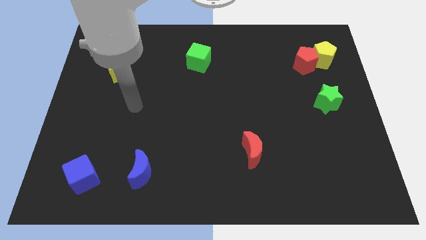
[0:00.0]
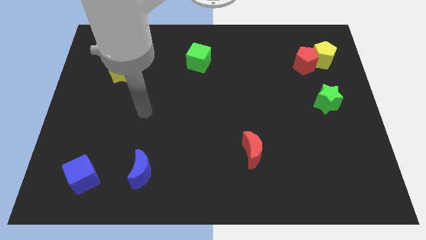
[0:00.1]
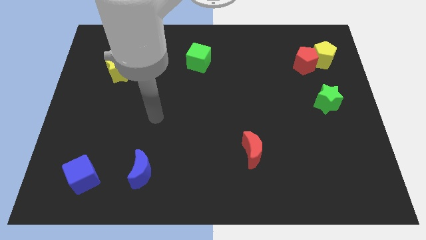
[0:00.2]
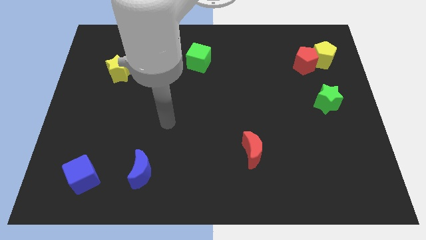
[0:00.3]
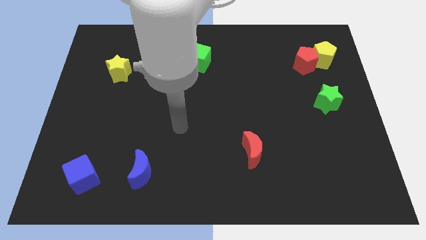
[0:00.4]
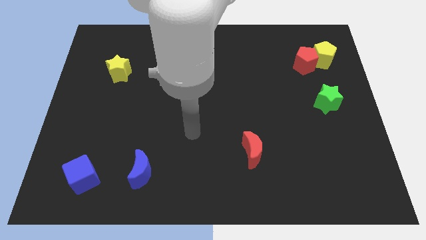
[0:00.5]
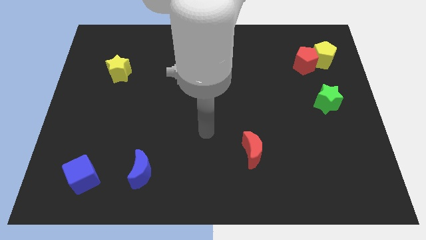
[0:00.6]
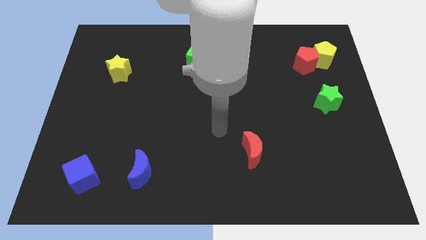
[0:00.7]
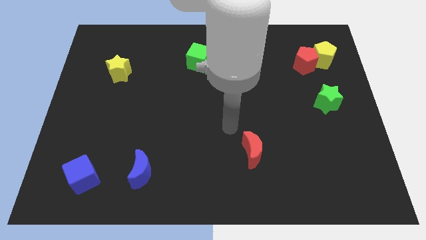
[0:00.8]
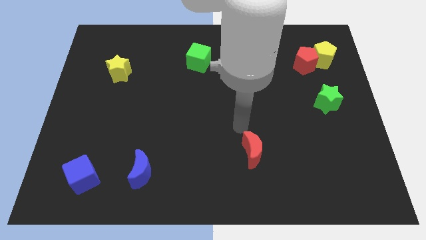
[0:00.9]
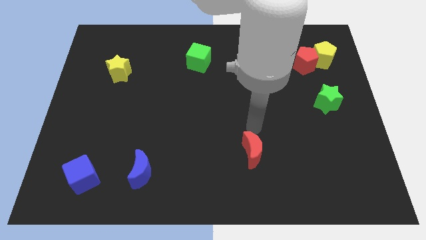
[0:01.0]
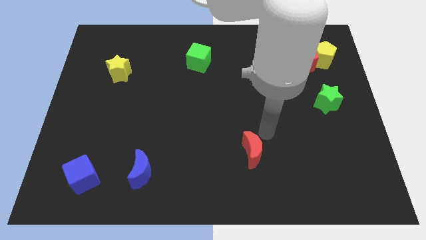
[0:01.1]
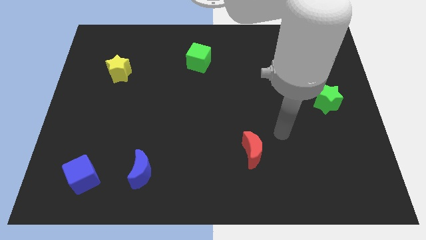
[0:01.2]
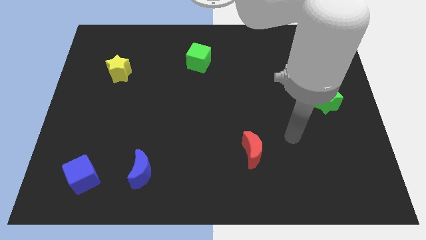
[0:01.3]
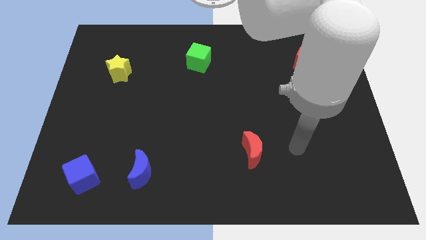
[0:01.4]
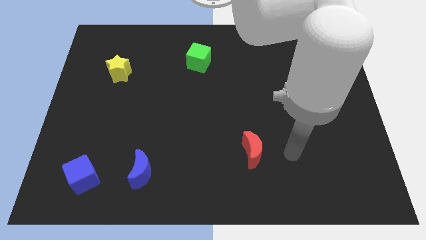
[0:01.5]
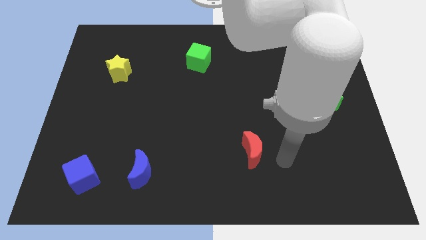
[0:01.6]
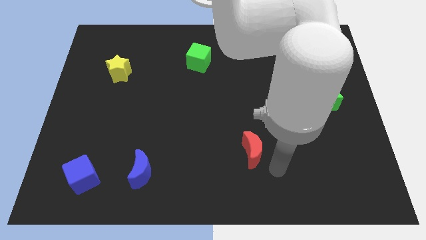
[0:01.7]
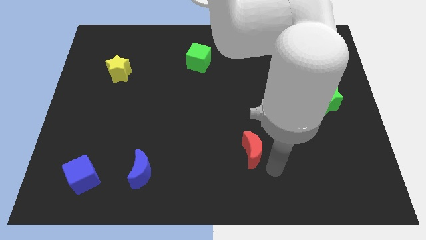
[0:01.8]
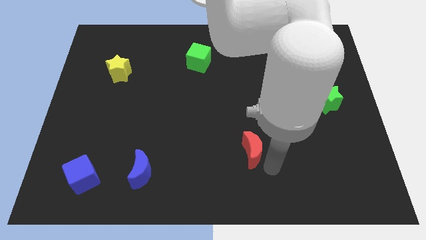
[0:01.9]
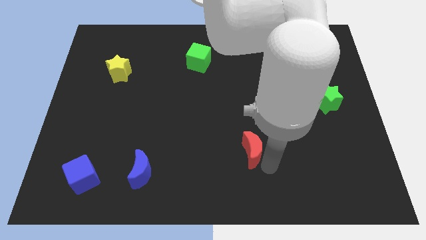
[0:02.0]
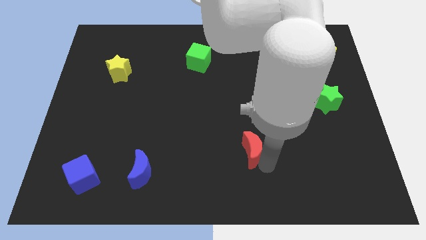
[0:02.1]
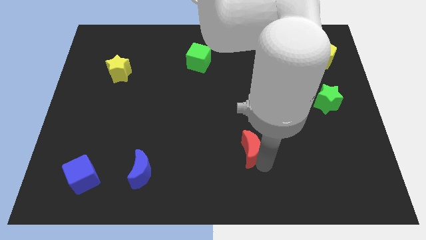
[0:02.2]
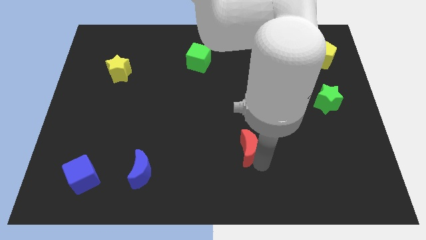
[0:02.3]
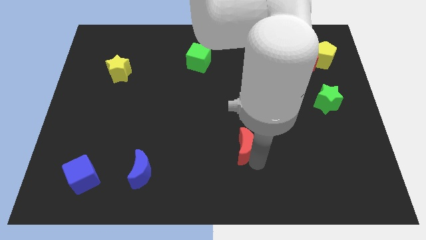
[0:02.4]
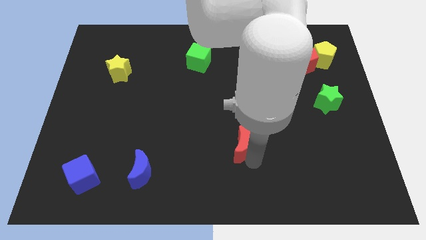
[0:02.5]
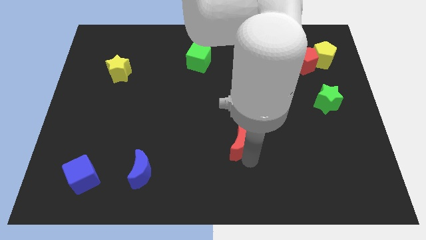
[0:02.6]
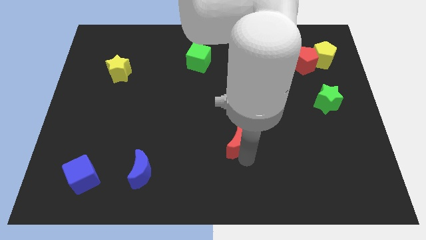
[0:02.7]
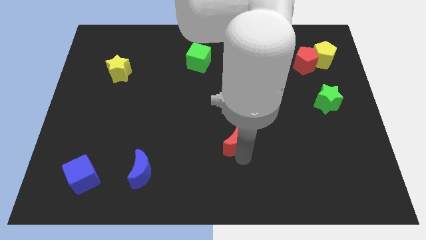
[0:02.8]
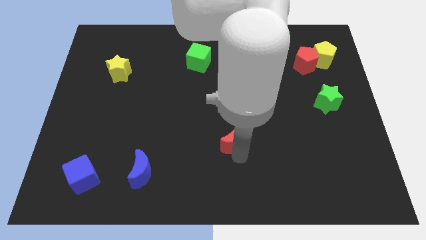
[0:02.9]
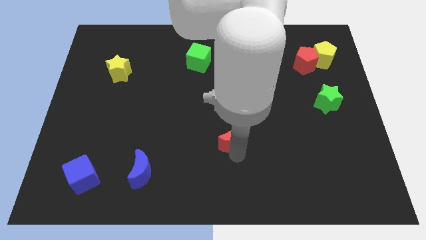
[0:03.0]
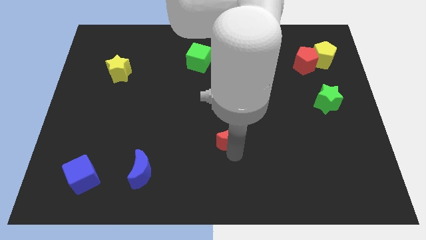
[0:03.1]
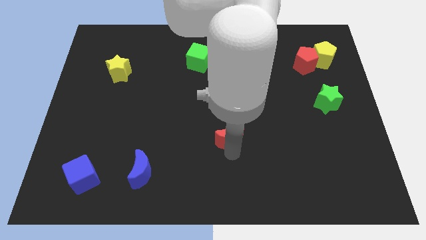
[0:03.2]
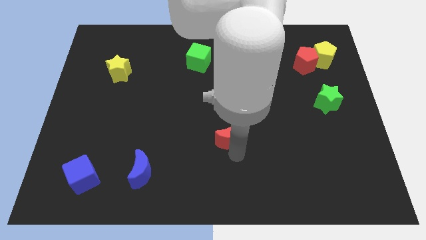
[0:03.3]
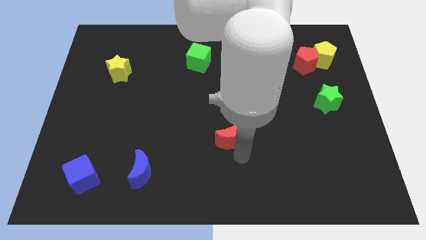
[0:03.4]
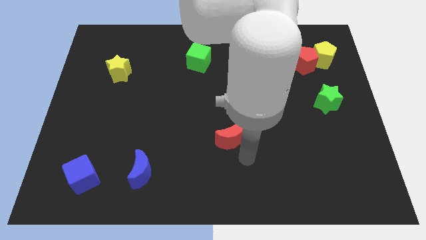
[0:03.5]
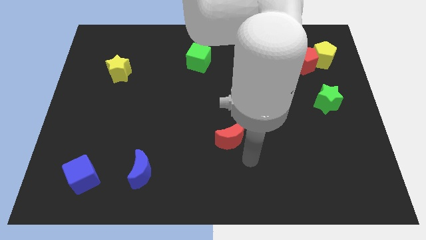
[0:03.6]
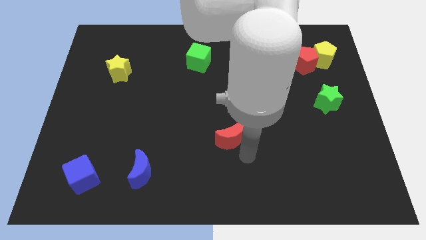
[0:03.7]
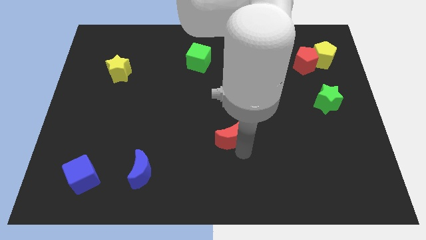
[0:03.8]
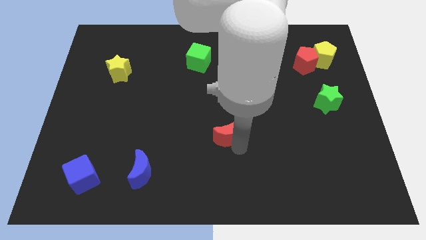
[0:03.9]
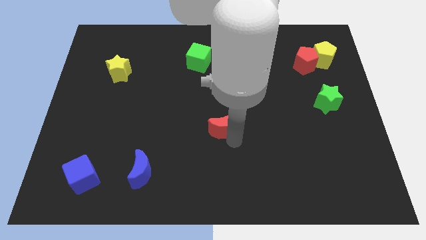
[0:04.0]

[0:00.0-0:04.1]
push the red moon upwards and then to the left a little

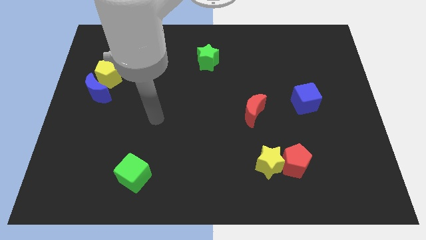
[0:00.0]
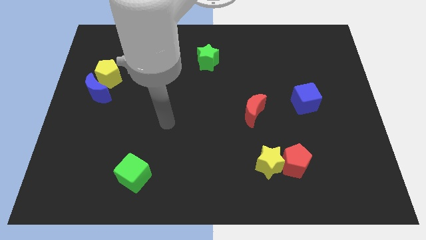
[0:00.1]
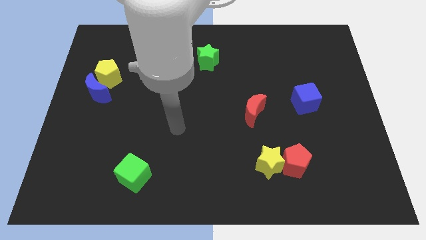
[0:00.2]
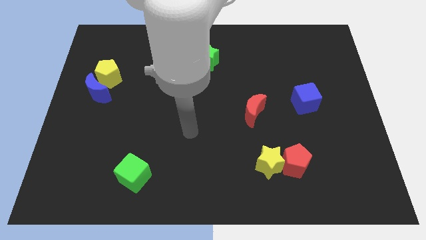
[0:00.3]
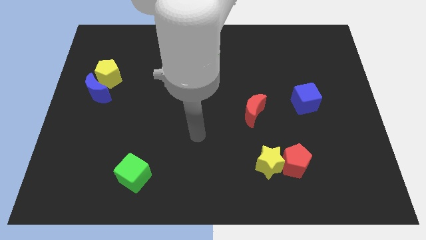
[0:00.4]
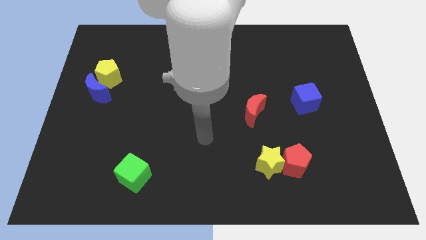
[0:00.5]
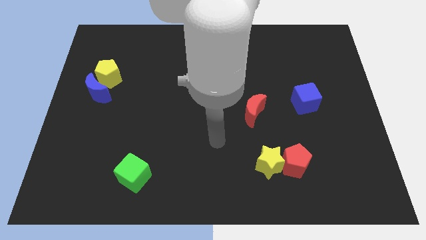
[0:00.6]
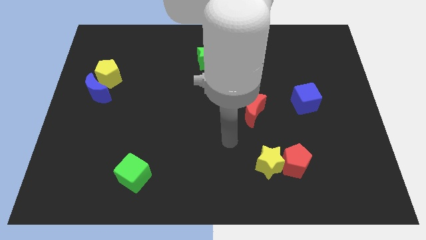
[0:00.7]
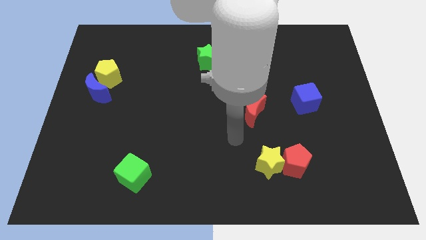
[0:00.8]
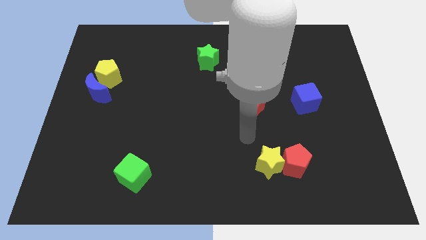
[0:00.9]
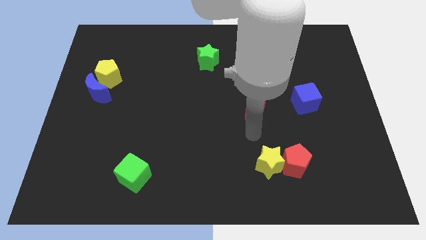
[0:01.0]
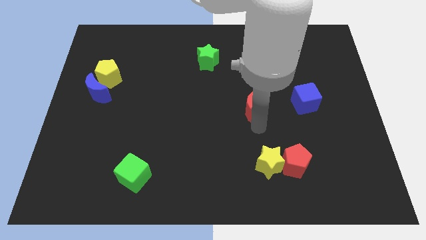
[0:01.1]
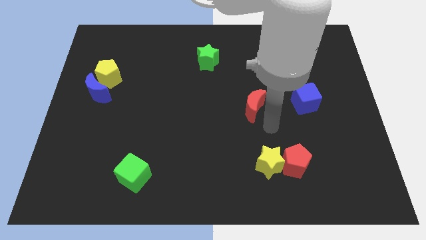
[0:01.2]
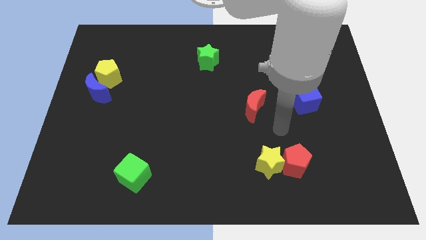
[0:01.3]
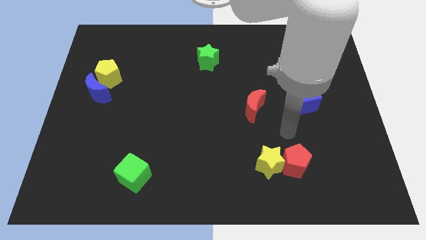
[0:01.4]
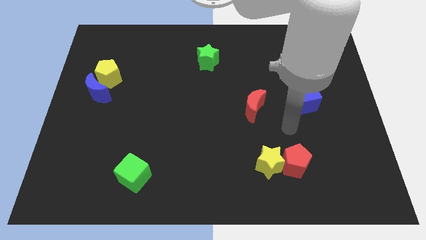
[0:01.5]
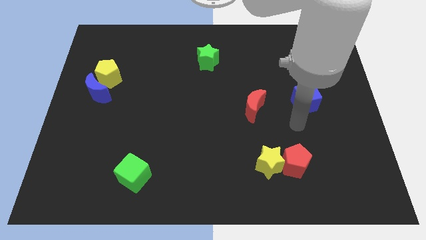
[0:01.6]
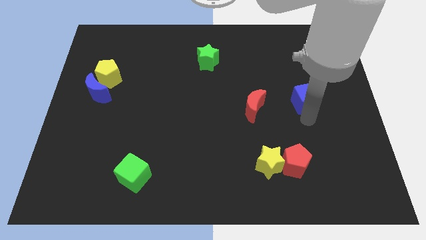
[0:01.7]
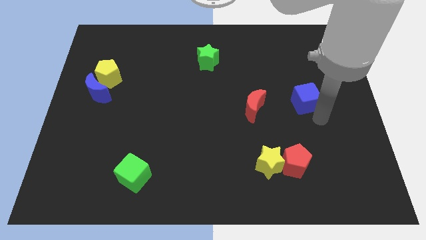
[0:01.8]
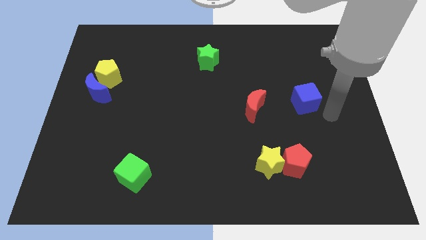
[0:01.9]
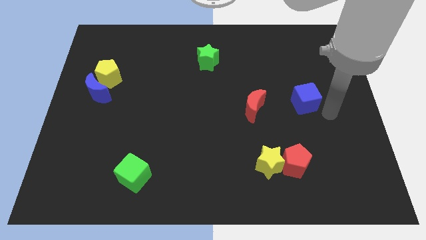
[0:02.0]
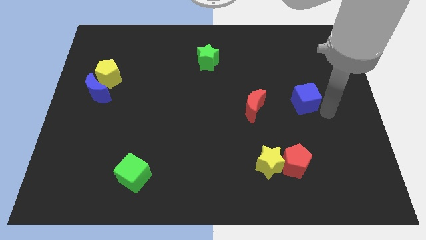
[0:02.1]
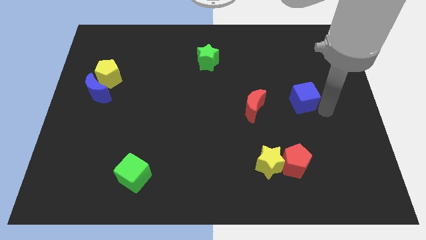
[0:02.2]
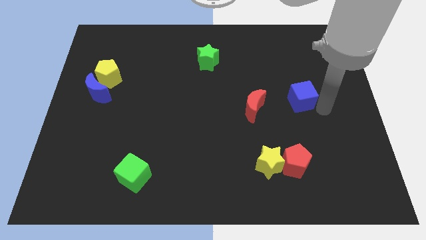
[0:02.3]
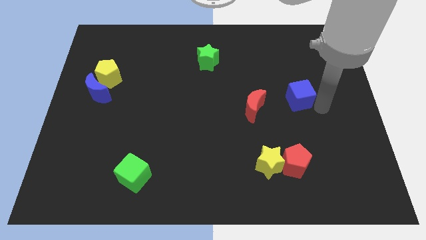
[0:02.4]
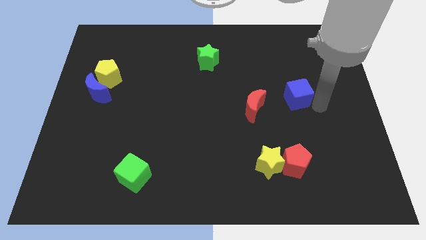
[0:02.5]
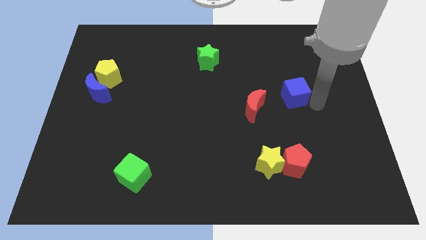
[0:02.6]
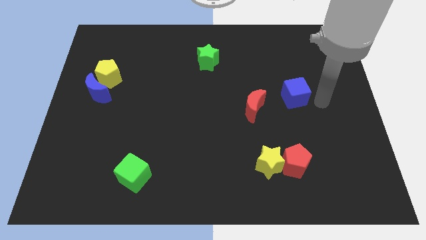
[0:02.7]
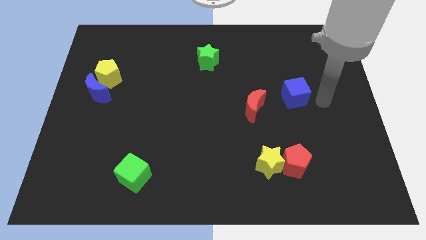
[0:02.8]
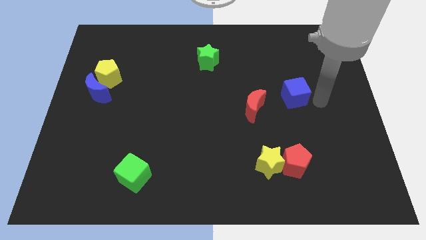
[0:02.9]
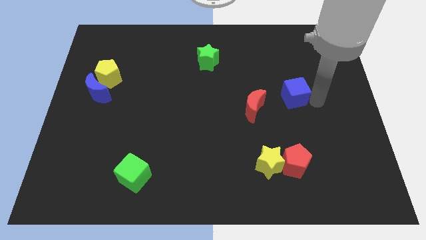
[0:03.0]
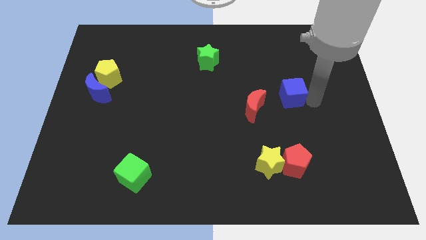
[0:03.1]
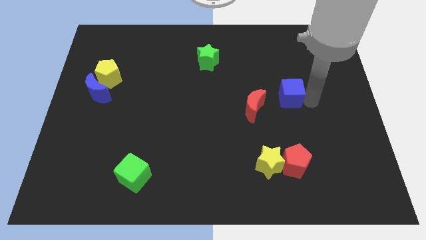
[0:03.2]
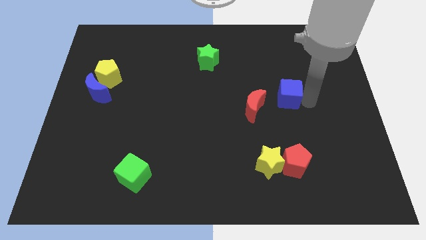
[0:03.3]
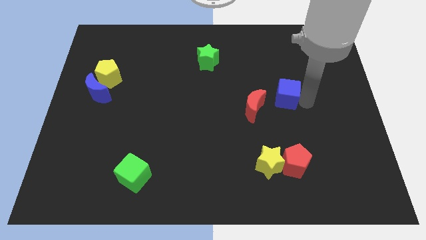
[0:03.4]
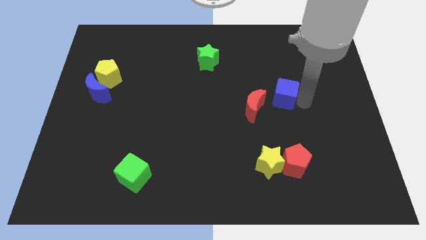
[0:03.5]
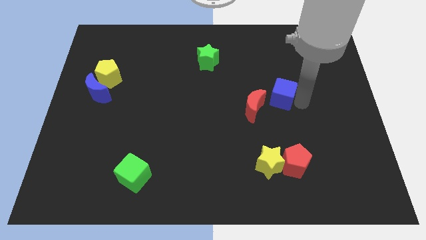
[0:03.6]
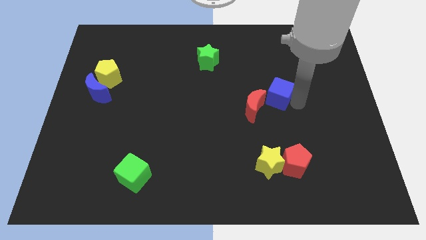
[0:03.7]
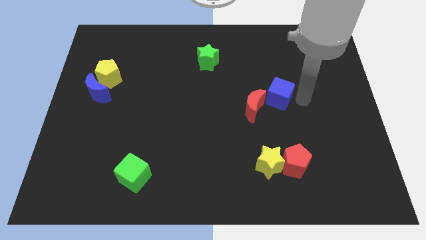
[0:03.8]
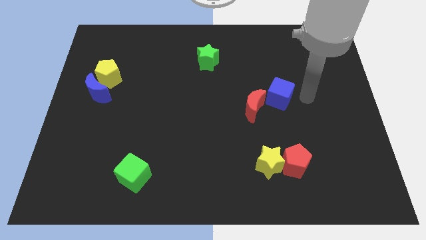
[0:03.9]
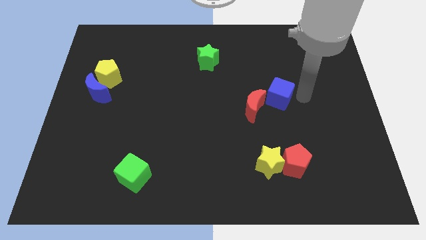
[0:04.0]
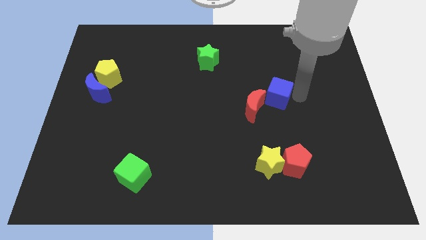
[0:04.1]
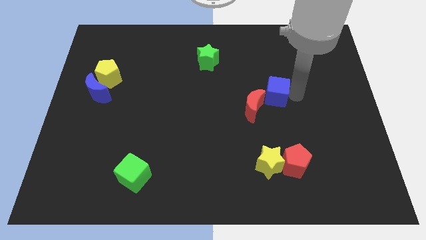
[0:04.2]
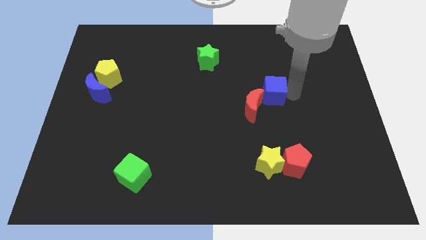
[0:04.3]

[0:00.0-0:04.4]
slightly slide the blue cube to the left
